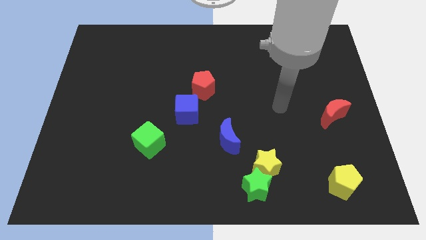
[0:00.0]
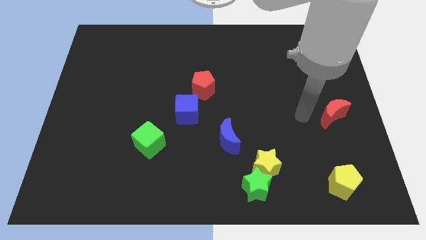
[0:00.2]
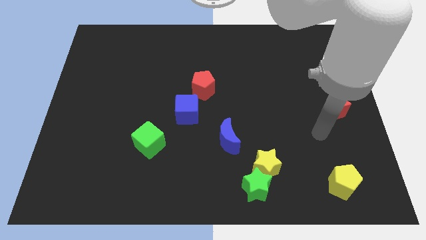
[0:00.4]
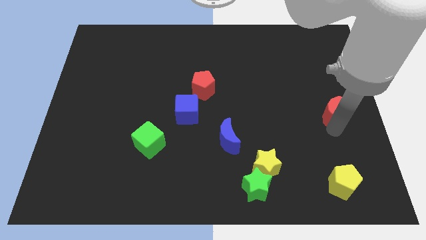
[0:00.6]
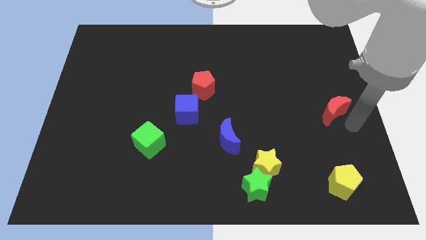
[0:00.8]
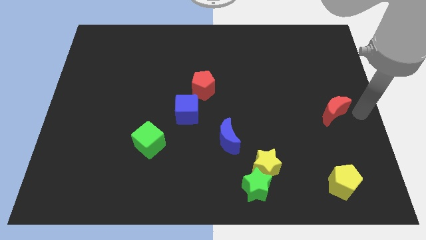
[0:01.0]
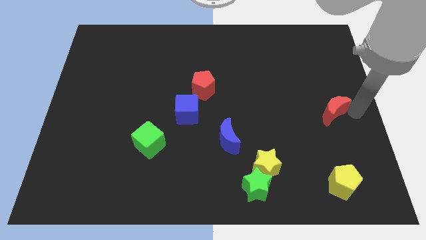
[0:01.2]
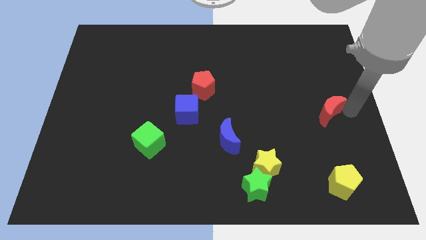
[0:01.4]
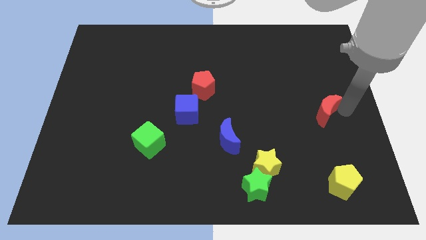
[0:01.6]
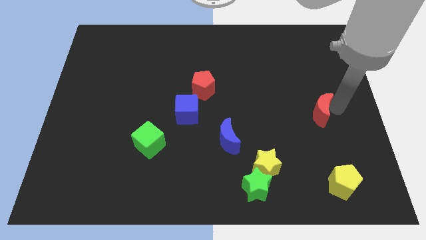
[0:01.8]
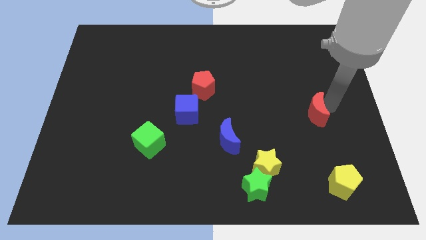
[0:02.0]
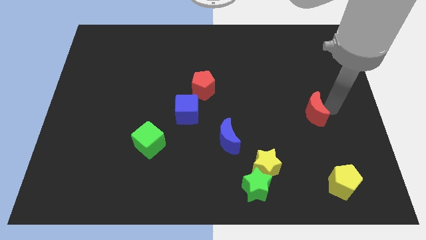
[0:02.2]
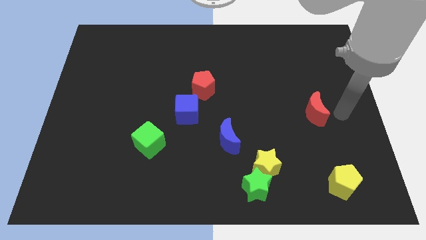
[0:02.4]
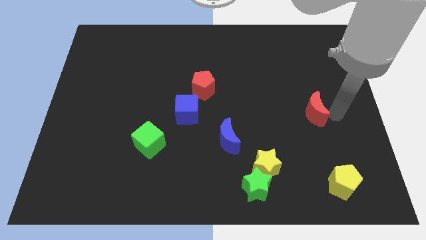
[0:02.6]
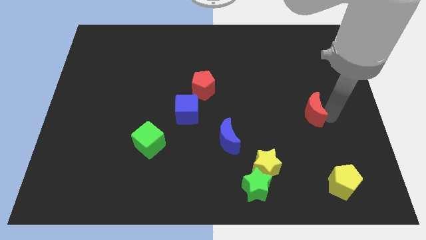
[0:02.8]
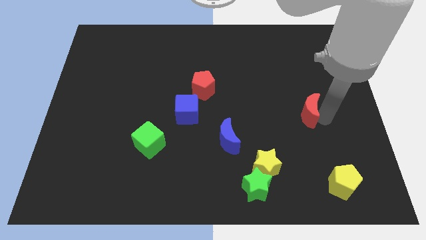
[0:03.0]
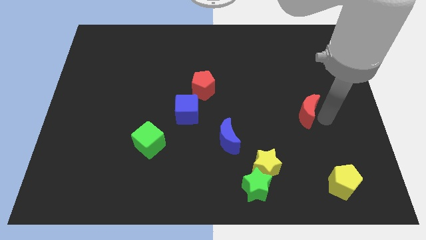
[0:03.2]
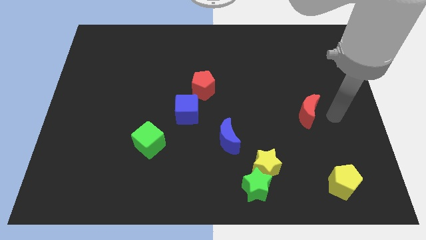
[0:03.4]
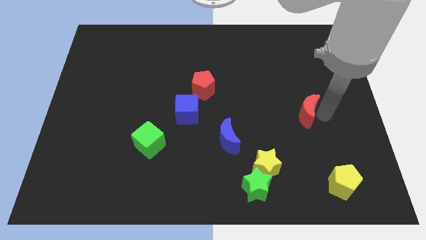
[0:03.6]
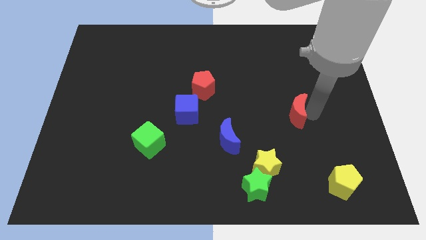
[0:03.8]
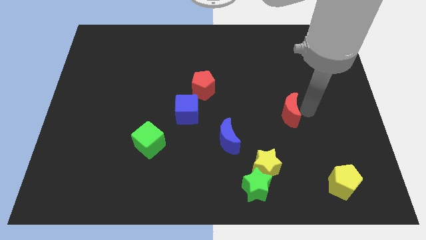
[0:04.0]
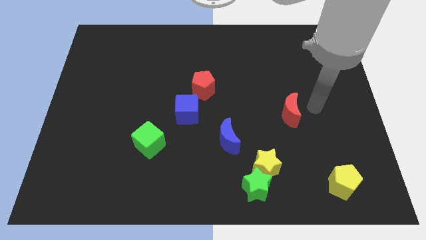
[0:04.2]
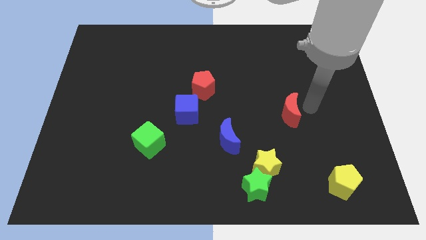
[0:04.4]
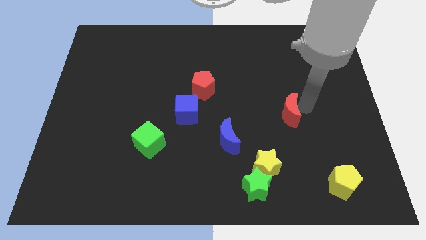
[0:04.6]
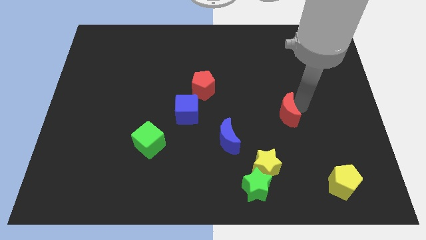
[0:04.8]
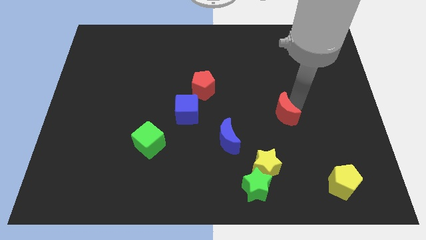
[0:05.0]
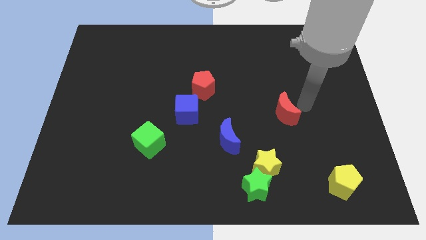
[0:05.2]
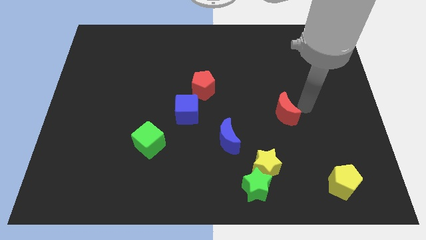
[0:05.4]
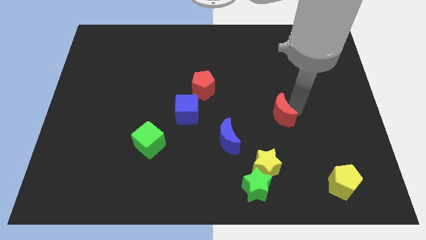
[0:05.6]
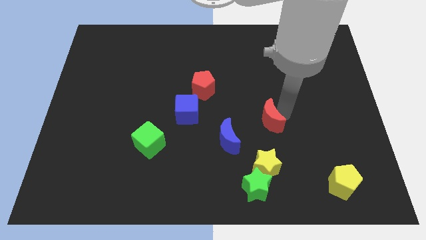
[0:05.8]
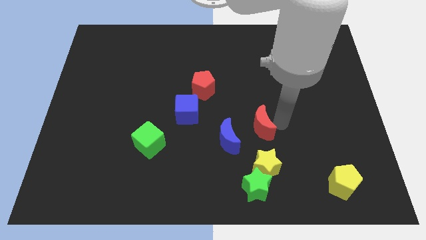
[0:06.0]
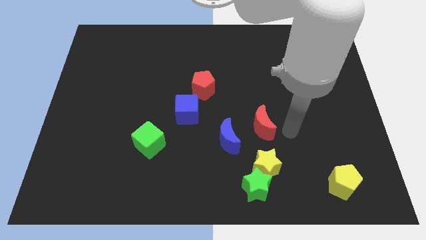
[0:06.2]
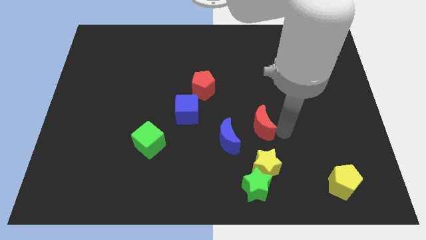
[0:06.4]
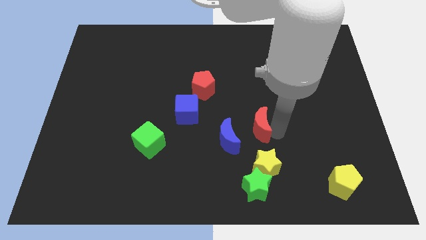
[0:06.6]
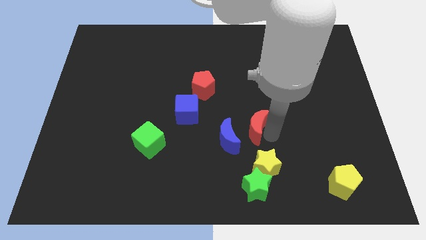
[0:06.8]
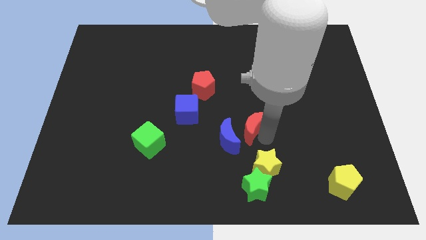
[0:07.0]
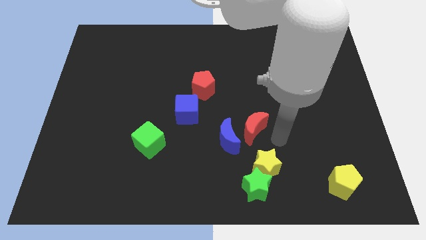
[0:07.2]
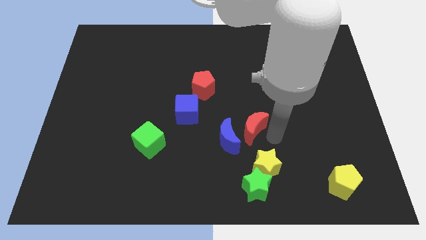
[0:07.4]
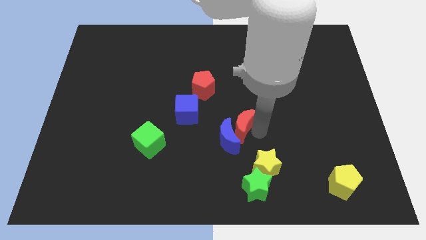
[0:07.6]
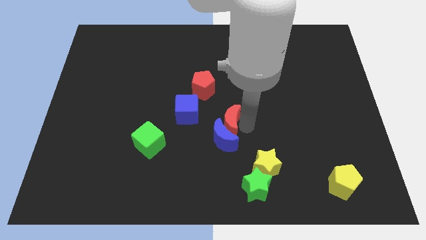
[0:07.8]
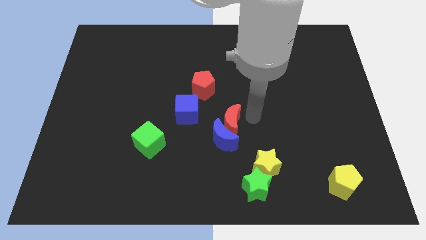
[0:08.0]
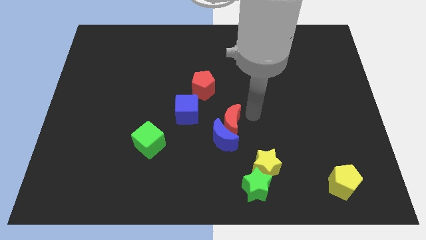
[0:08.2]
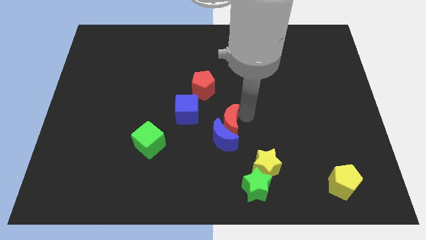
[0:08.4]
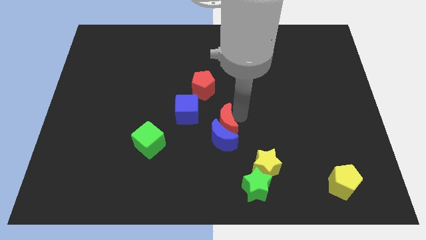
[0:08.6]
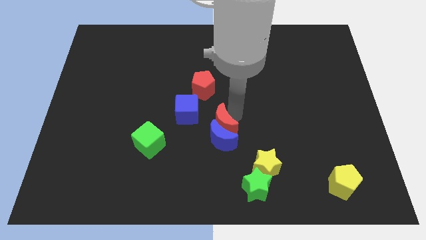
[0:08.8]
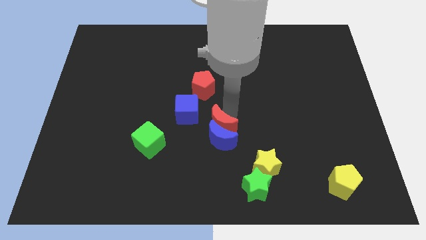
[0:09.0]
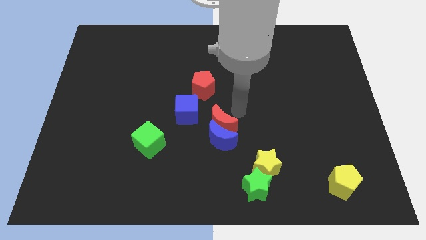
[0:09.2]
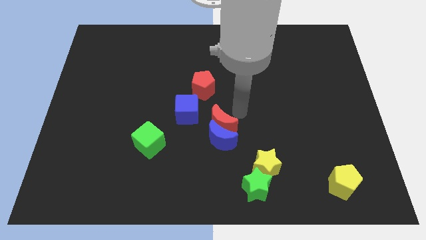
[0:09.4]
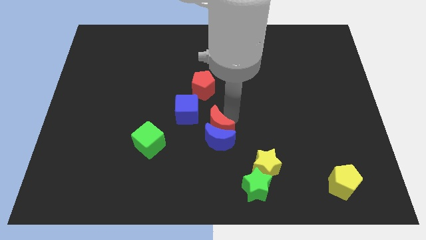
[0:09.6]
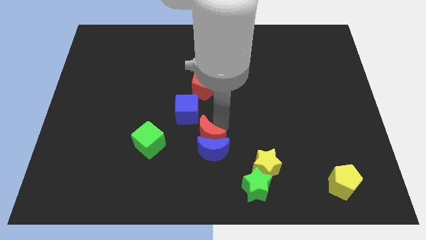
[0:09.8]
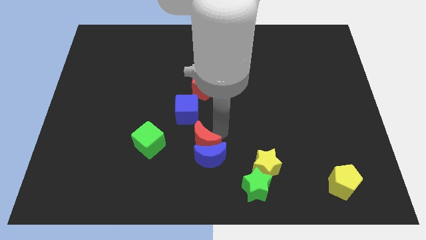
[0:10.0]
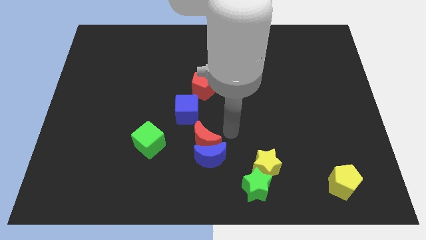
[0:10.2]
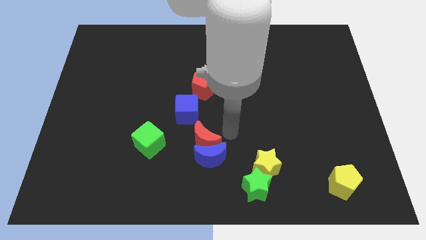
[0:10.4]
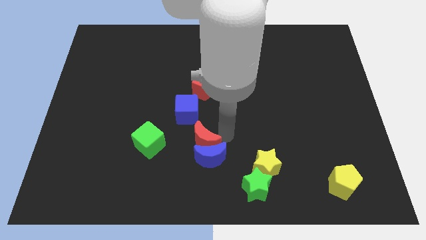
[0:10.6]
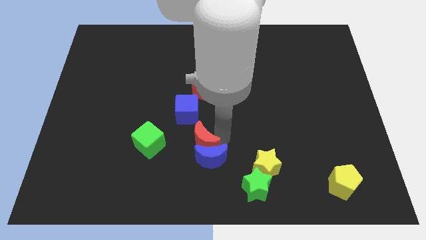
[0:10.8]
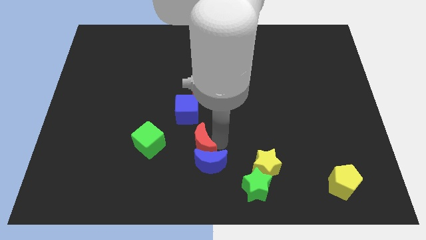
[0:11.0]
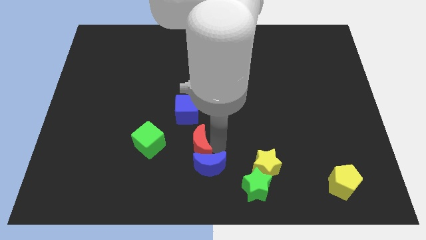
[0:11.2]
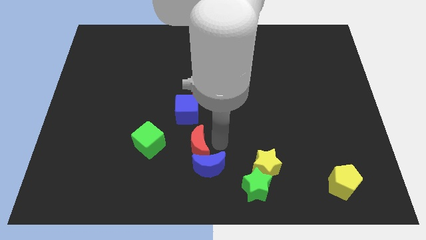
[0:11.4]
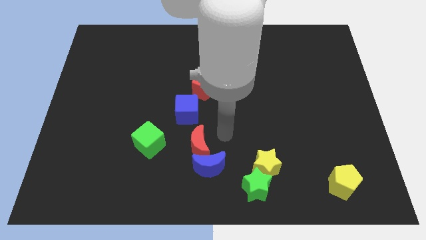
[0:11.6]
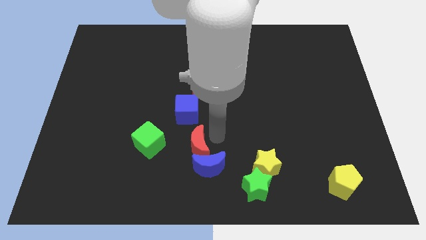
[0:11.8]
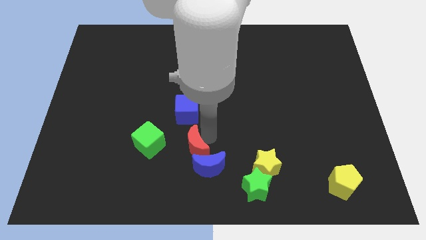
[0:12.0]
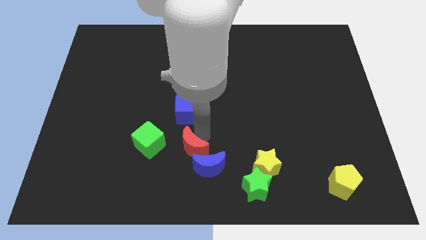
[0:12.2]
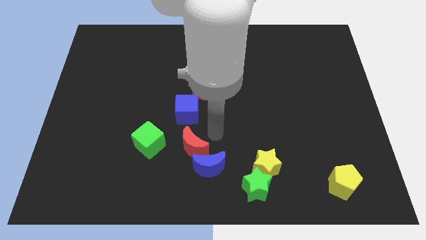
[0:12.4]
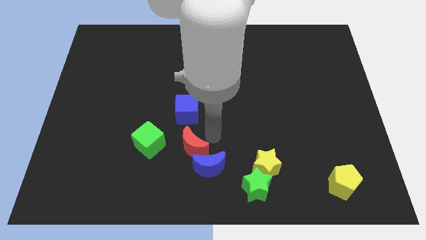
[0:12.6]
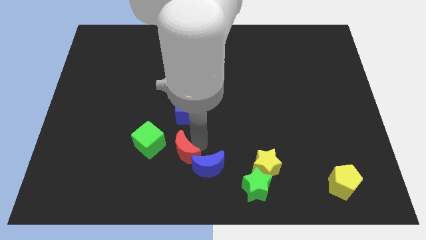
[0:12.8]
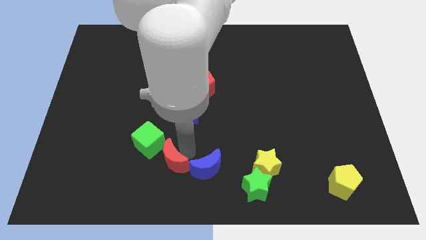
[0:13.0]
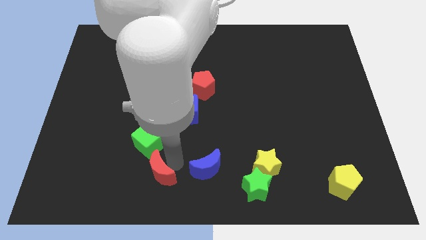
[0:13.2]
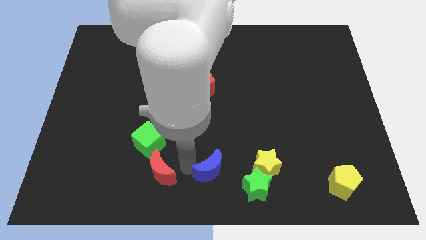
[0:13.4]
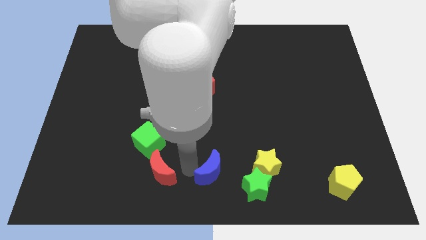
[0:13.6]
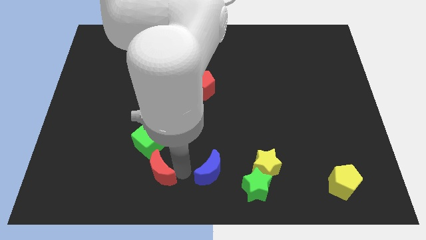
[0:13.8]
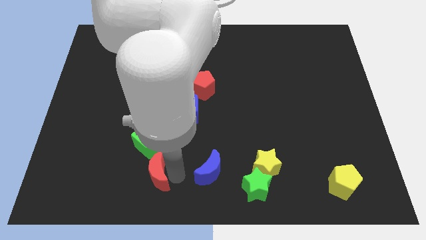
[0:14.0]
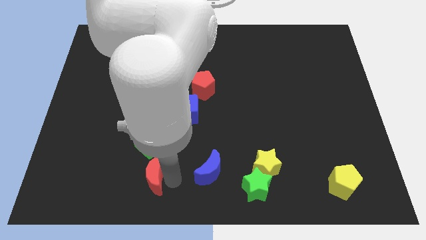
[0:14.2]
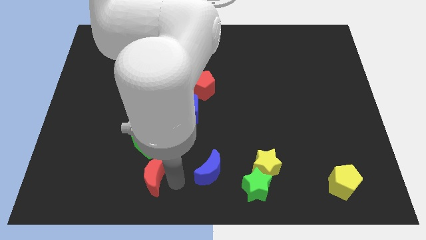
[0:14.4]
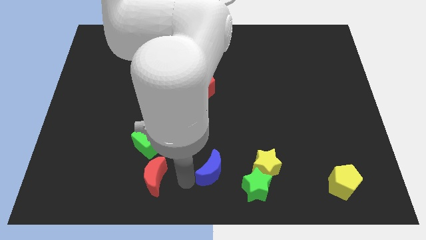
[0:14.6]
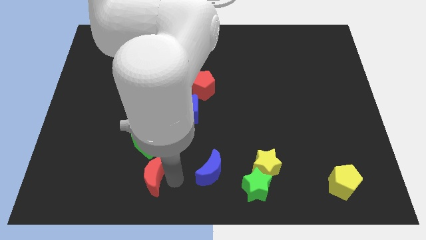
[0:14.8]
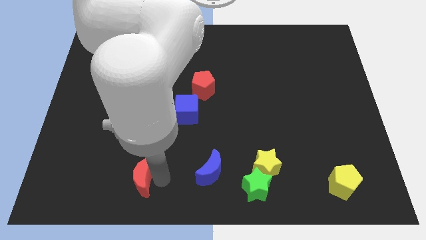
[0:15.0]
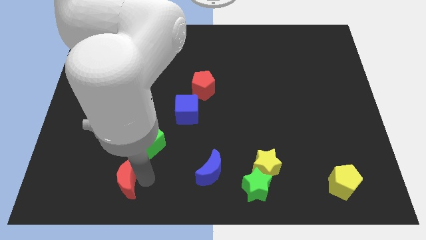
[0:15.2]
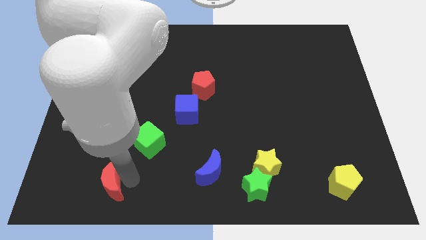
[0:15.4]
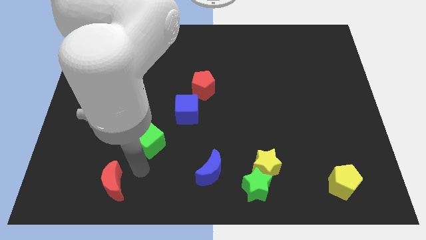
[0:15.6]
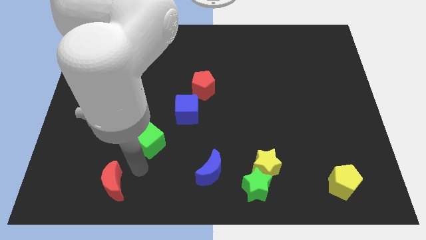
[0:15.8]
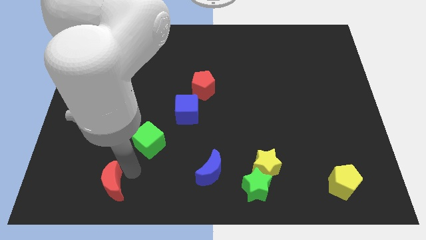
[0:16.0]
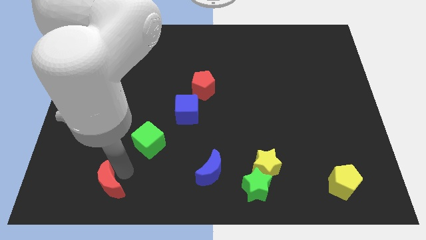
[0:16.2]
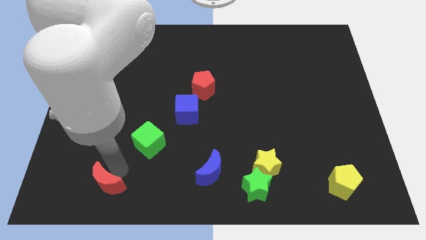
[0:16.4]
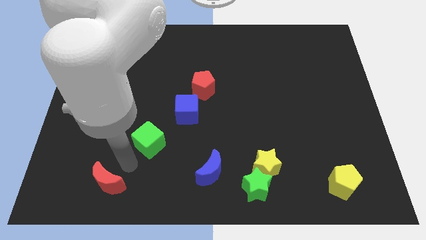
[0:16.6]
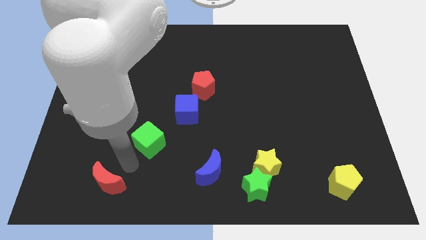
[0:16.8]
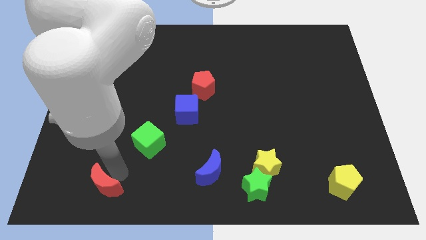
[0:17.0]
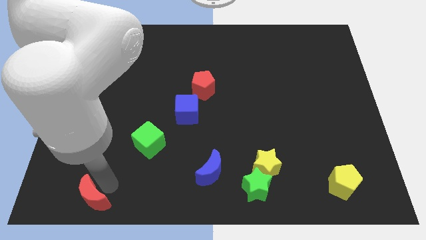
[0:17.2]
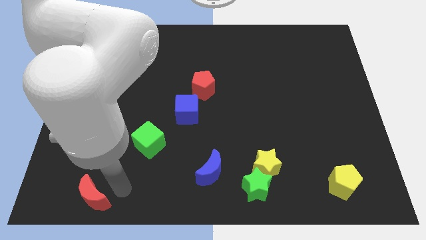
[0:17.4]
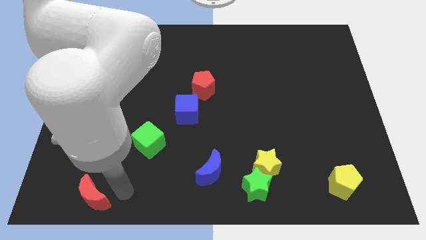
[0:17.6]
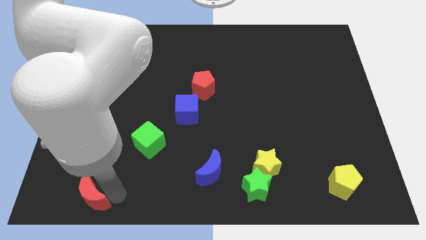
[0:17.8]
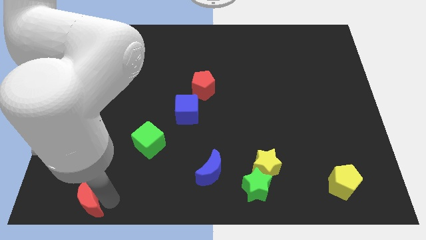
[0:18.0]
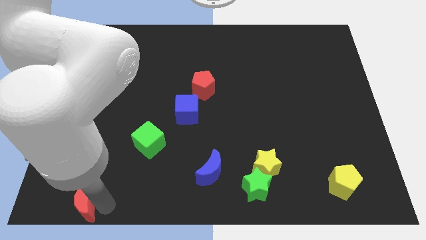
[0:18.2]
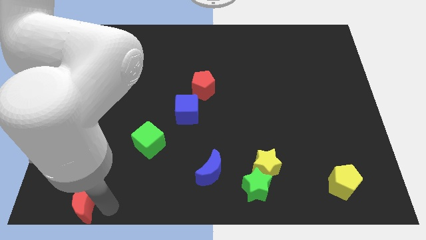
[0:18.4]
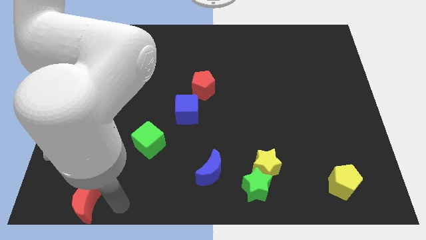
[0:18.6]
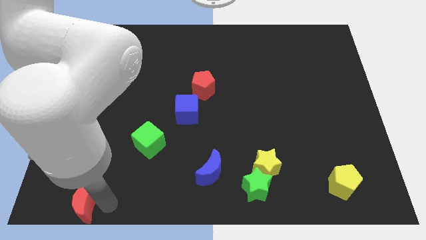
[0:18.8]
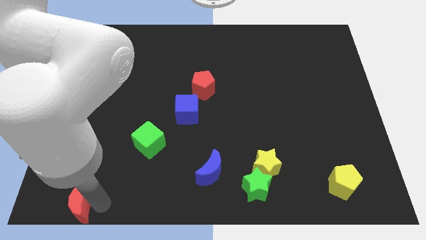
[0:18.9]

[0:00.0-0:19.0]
slide the red moon to the bottom left corner
